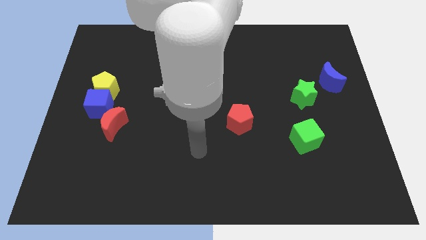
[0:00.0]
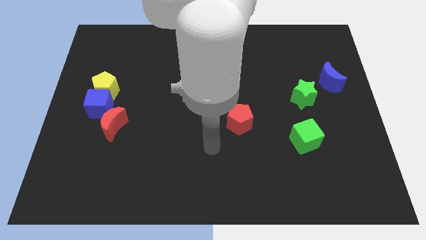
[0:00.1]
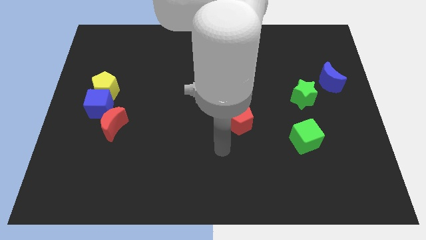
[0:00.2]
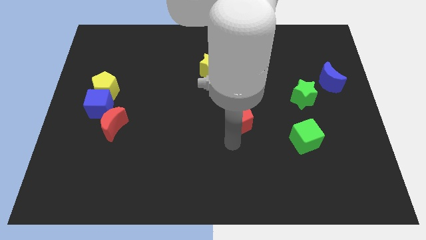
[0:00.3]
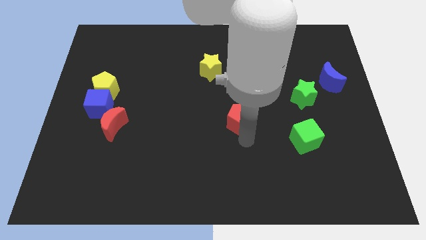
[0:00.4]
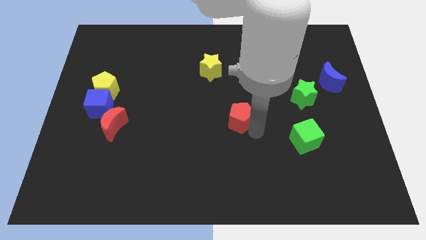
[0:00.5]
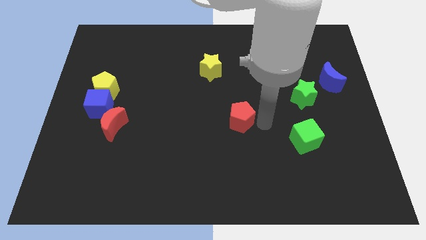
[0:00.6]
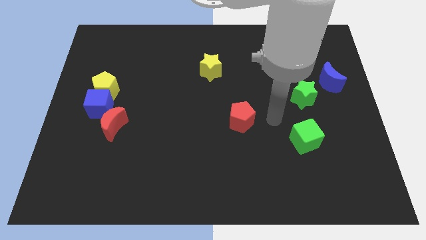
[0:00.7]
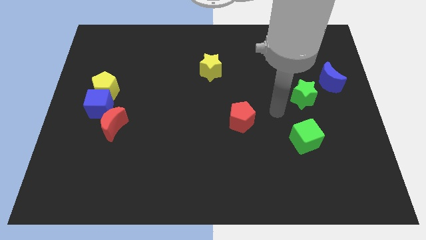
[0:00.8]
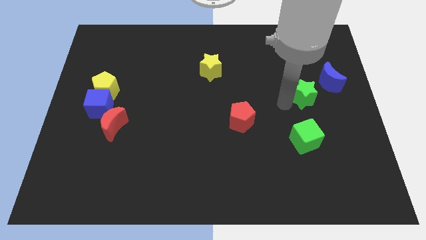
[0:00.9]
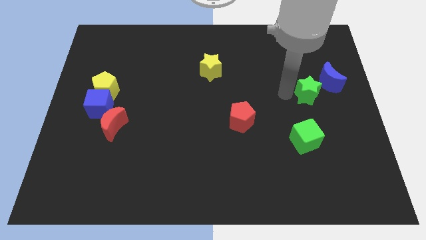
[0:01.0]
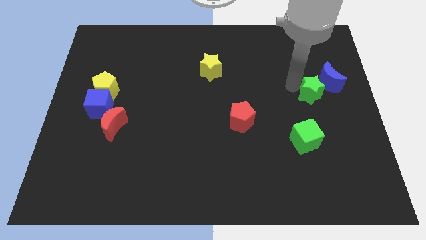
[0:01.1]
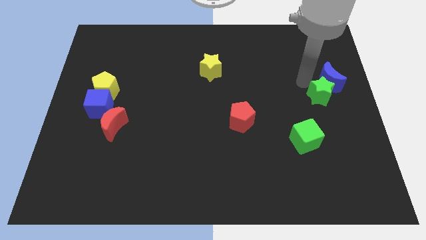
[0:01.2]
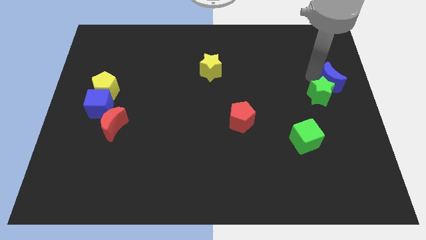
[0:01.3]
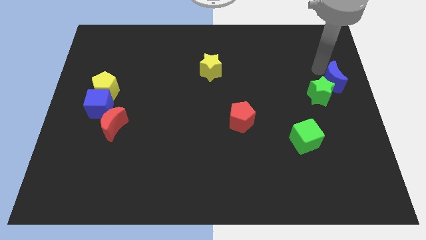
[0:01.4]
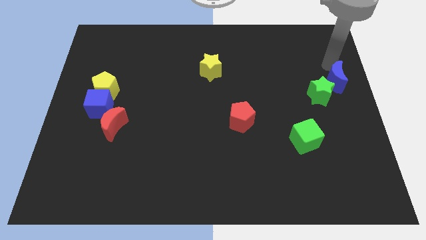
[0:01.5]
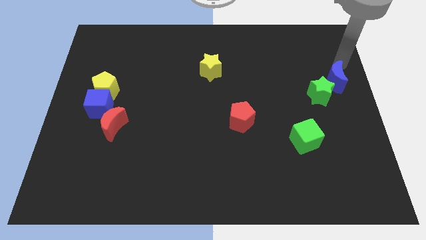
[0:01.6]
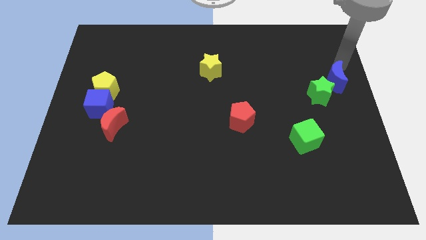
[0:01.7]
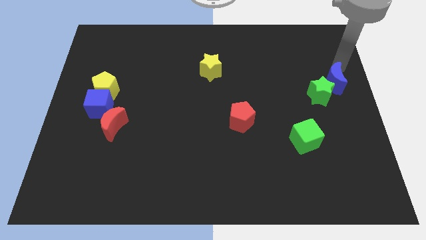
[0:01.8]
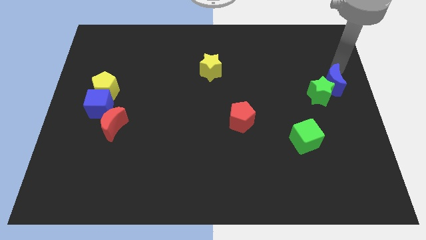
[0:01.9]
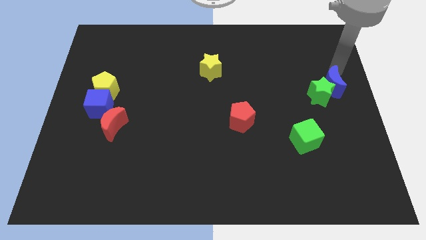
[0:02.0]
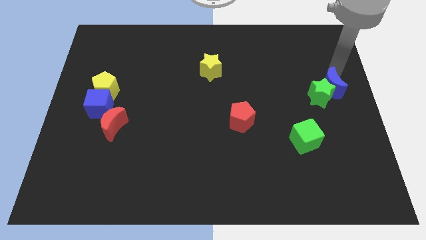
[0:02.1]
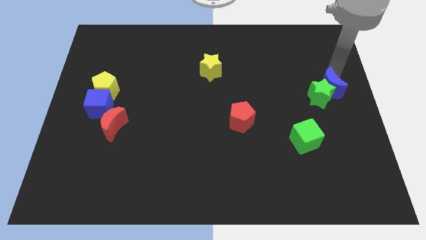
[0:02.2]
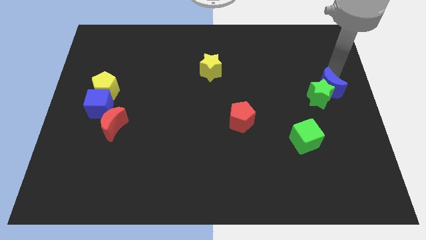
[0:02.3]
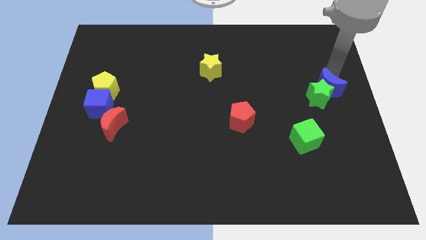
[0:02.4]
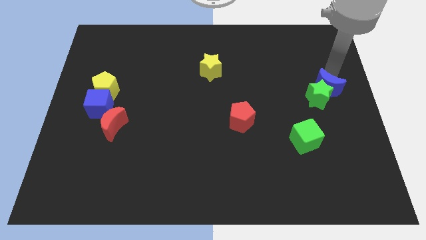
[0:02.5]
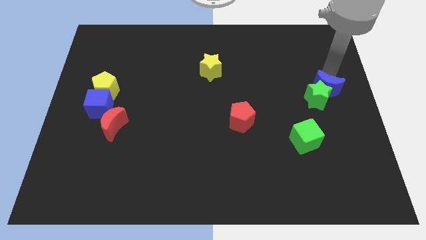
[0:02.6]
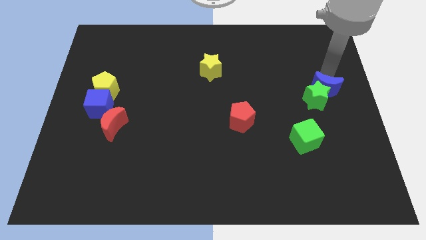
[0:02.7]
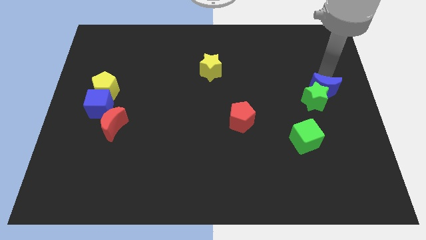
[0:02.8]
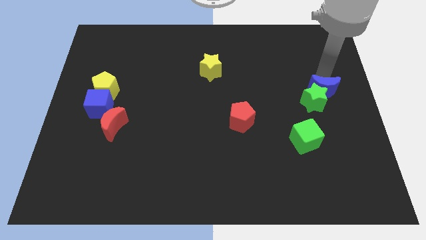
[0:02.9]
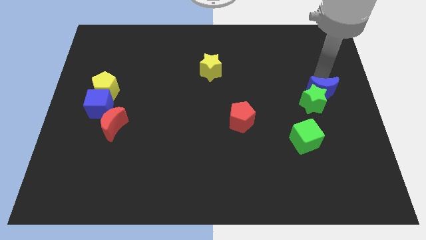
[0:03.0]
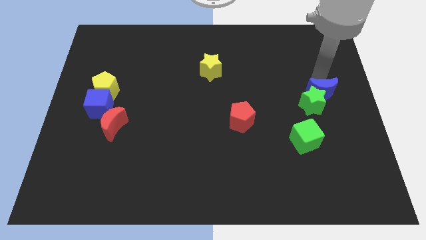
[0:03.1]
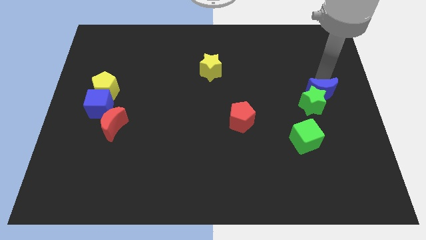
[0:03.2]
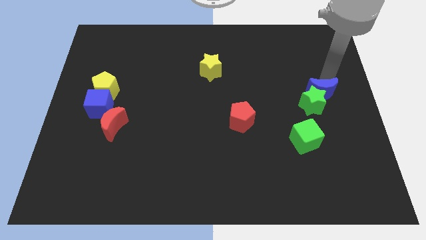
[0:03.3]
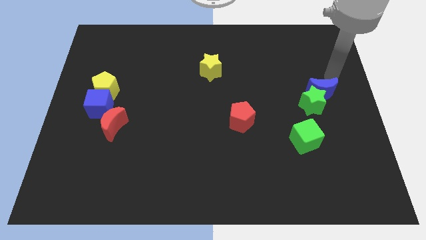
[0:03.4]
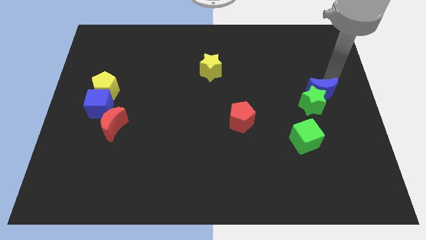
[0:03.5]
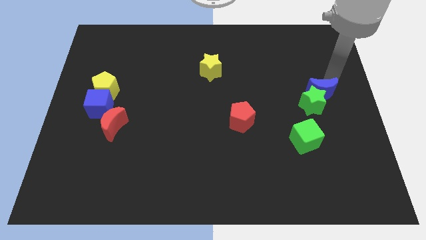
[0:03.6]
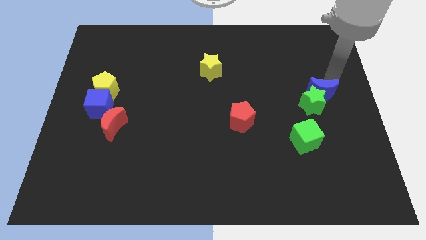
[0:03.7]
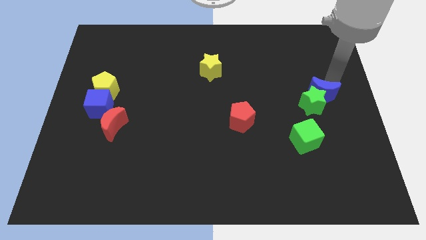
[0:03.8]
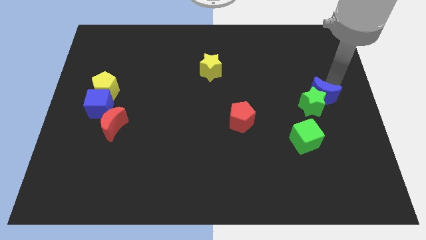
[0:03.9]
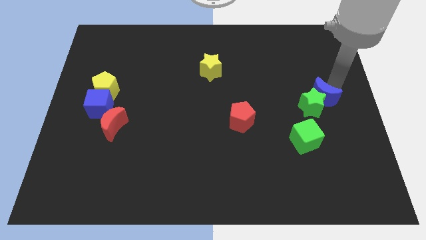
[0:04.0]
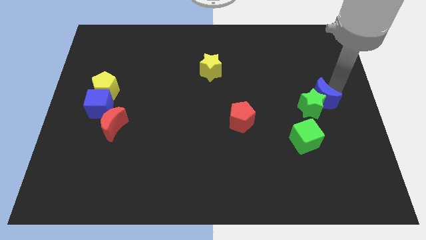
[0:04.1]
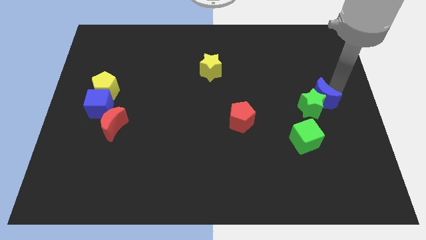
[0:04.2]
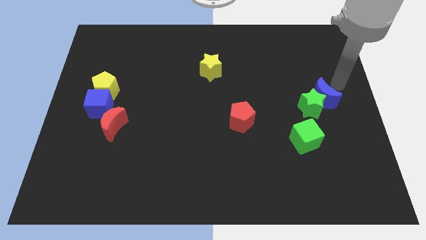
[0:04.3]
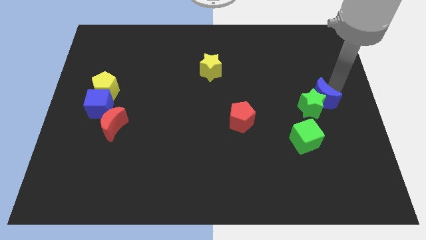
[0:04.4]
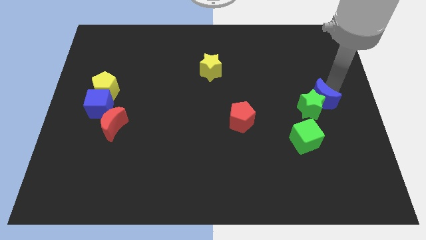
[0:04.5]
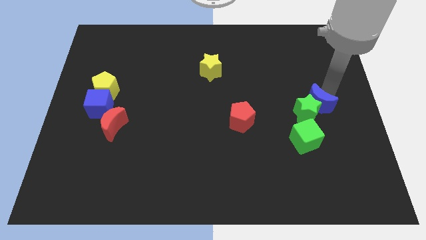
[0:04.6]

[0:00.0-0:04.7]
move the blue moon somewhat downwards and to the left

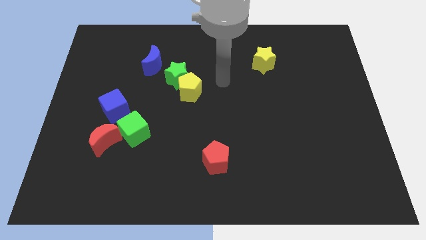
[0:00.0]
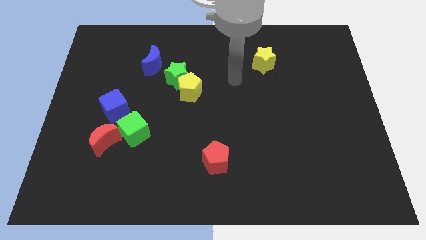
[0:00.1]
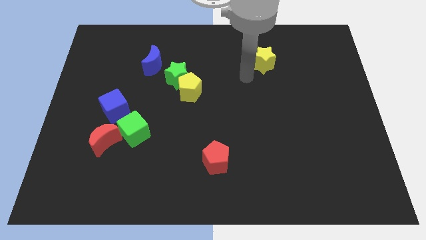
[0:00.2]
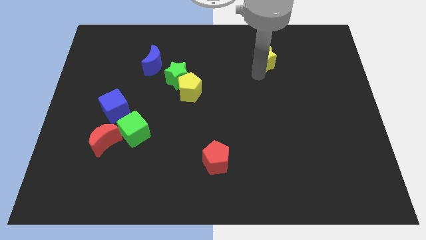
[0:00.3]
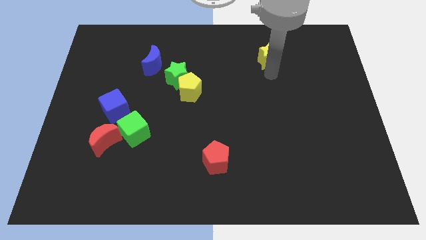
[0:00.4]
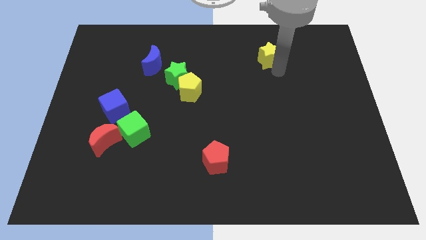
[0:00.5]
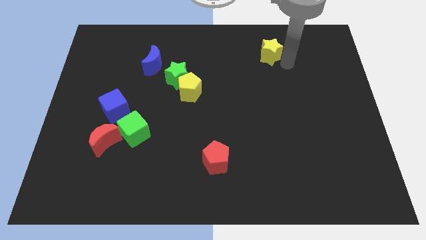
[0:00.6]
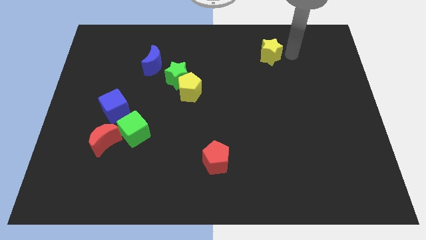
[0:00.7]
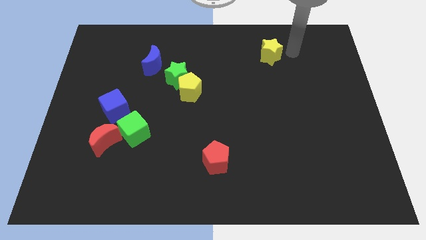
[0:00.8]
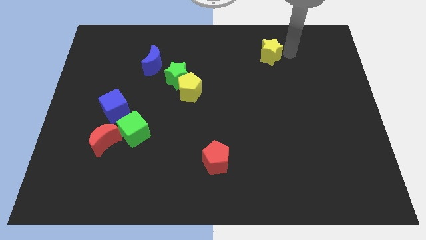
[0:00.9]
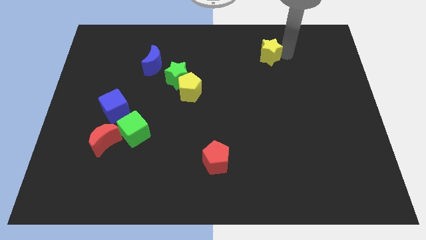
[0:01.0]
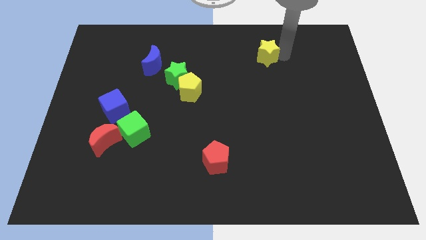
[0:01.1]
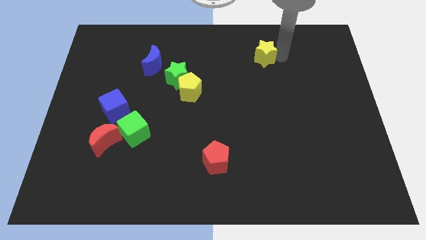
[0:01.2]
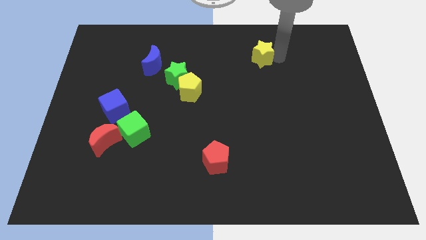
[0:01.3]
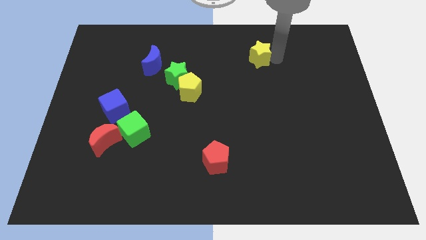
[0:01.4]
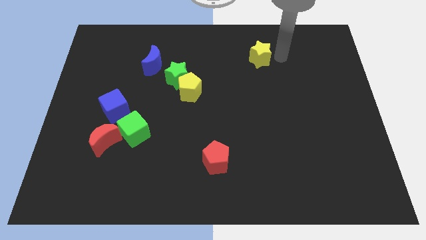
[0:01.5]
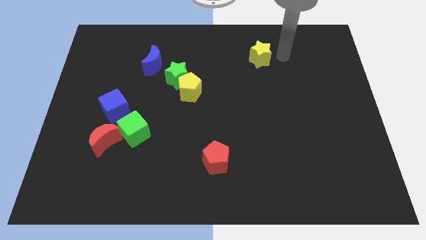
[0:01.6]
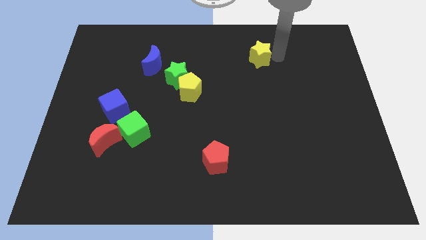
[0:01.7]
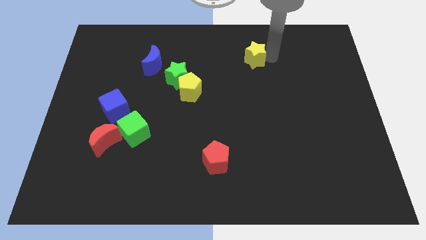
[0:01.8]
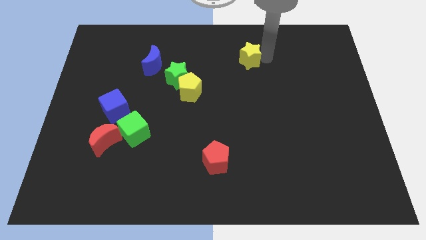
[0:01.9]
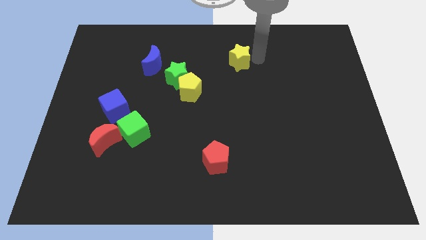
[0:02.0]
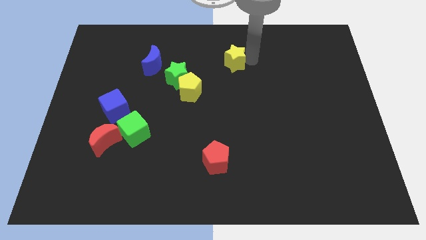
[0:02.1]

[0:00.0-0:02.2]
slightly push the yellow star to the left

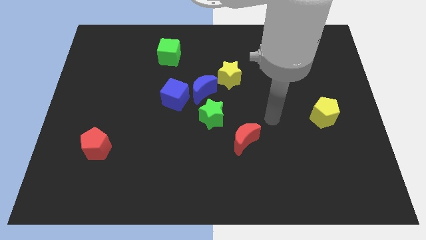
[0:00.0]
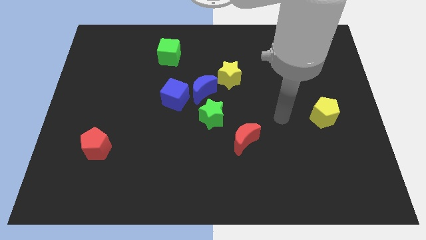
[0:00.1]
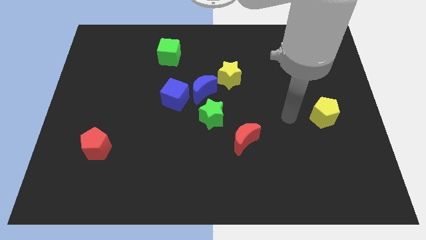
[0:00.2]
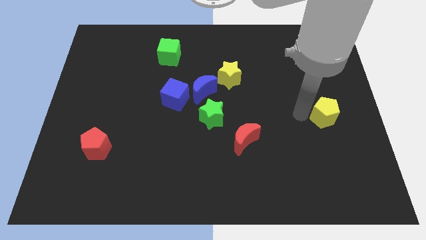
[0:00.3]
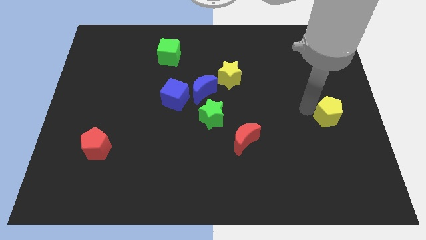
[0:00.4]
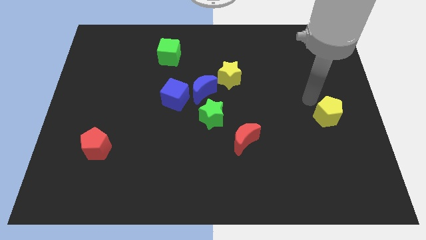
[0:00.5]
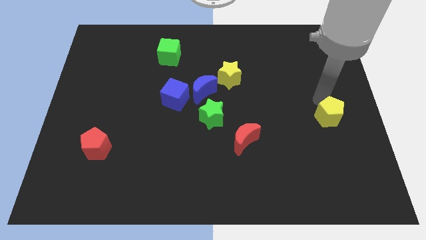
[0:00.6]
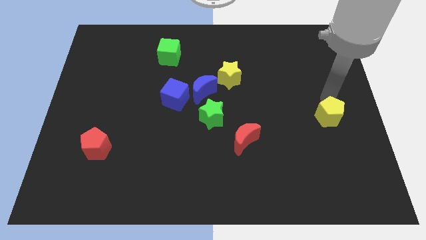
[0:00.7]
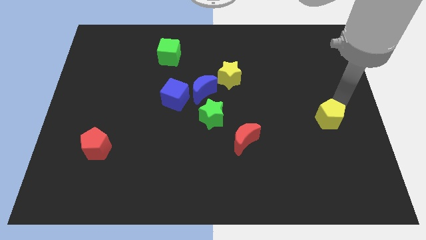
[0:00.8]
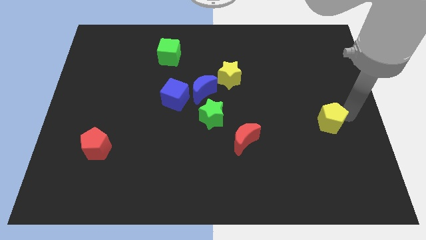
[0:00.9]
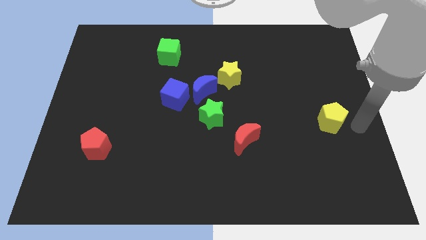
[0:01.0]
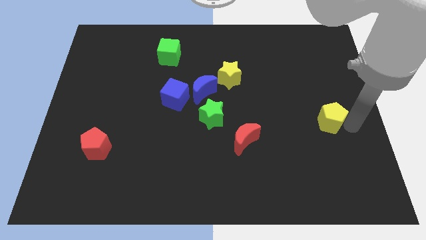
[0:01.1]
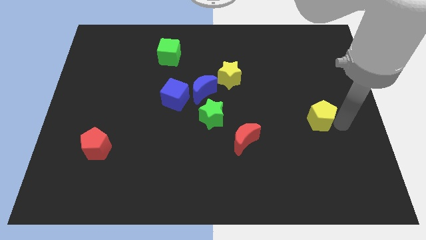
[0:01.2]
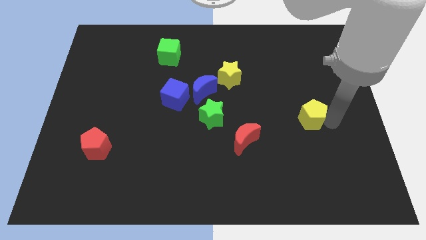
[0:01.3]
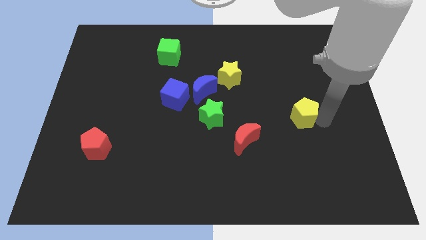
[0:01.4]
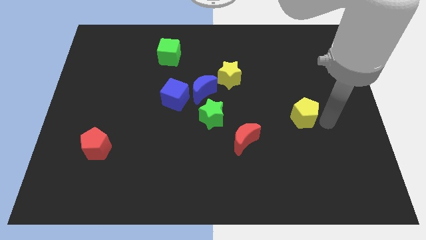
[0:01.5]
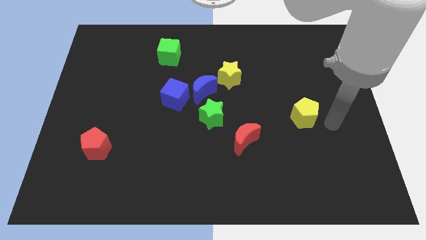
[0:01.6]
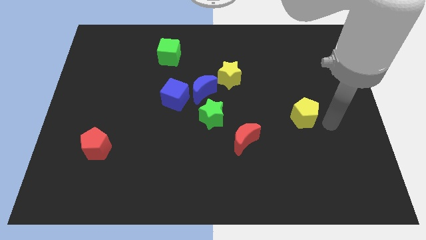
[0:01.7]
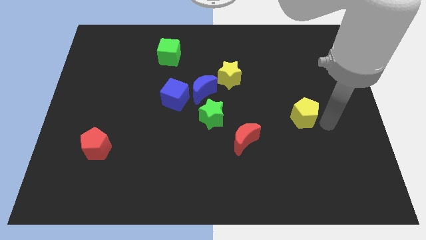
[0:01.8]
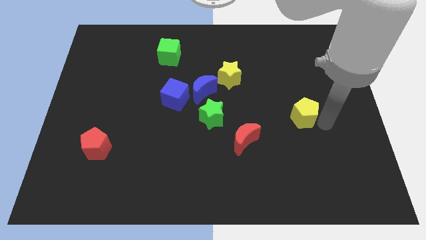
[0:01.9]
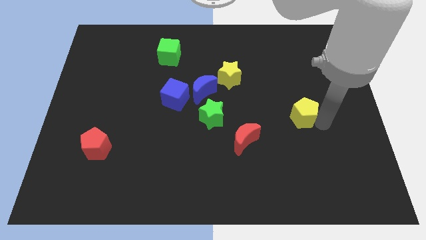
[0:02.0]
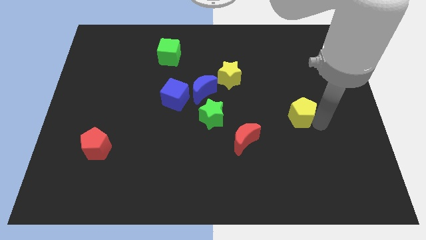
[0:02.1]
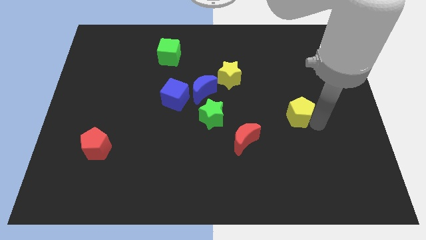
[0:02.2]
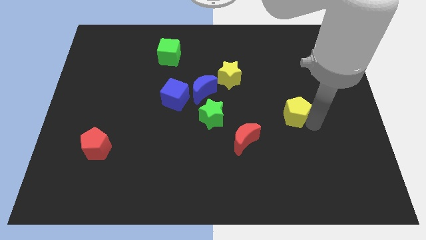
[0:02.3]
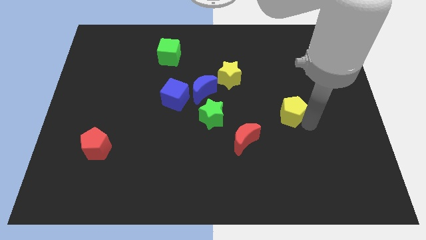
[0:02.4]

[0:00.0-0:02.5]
slide the yellow pentagon to the left slightly
